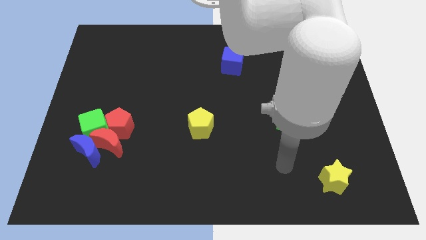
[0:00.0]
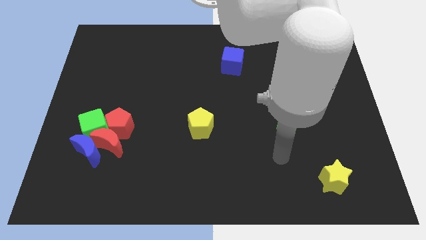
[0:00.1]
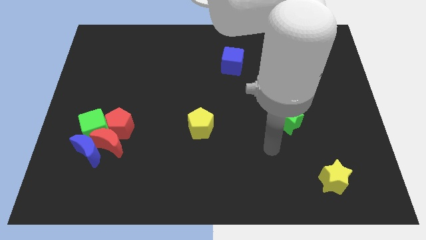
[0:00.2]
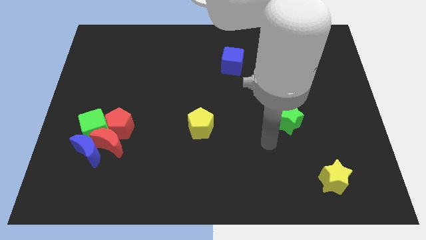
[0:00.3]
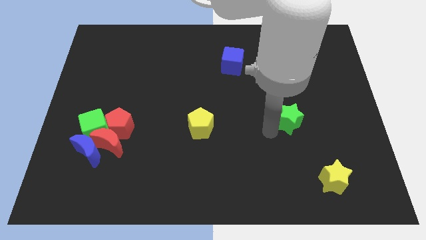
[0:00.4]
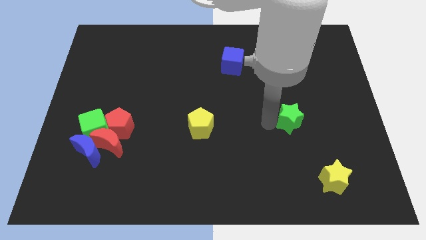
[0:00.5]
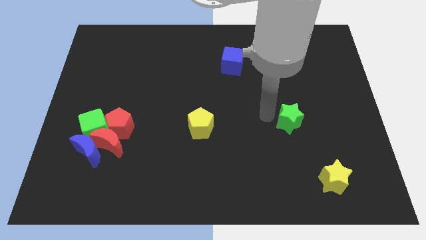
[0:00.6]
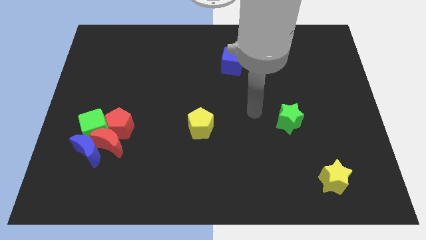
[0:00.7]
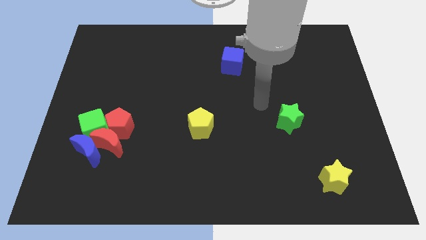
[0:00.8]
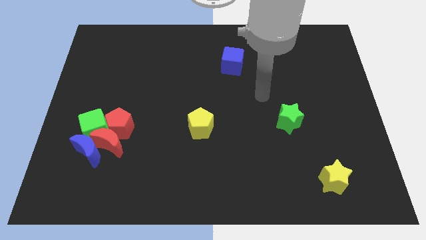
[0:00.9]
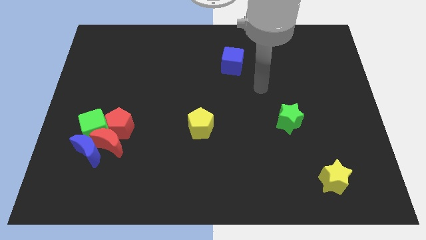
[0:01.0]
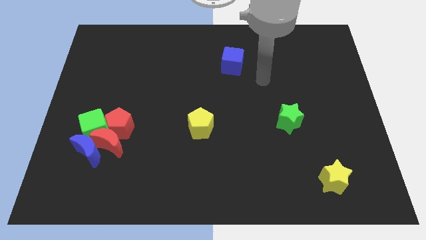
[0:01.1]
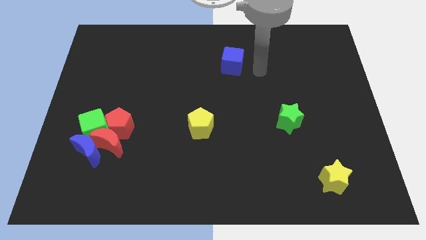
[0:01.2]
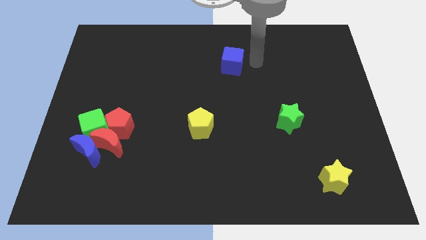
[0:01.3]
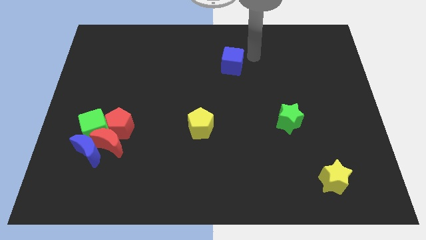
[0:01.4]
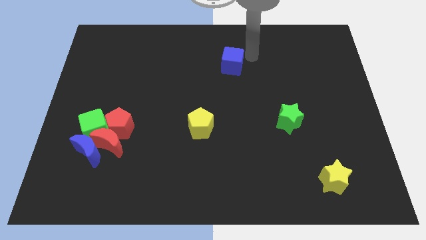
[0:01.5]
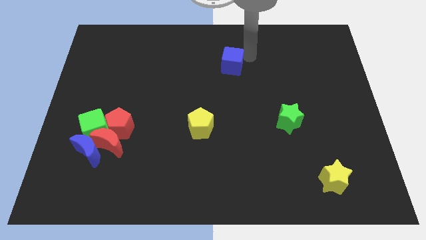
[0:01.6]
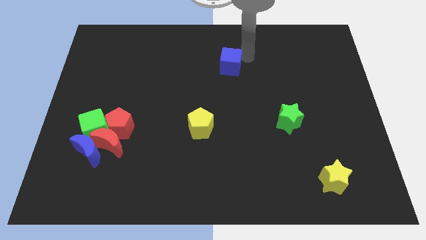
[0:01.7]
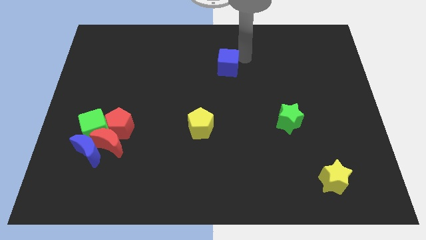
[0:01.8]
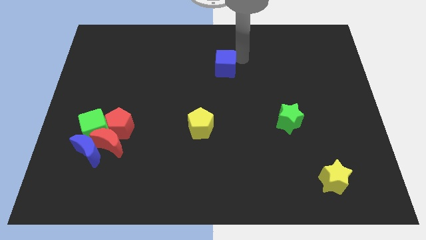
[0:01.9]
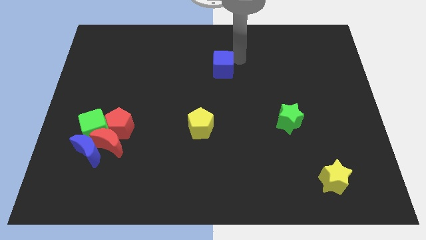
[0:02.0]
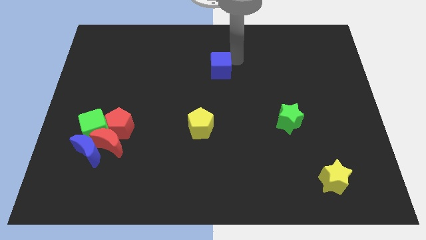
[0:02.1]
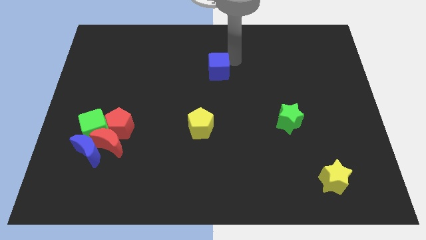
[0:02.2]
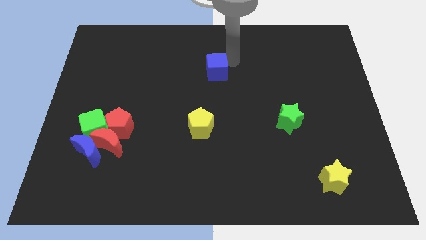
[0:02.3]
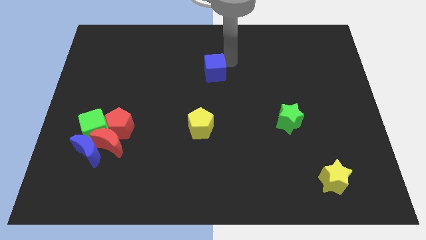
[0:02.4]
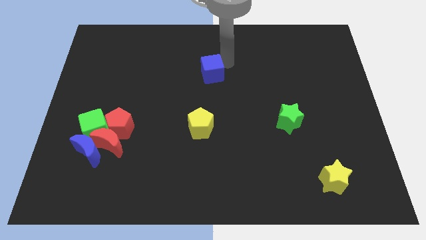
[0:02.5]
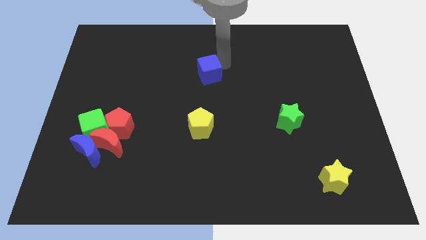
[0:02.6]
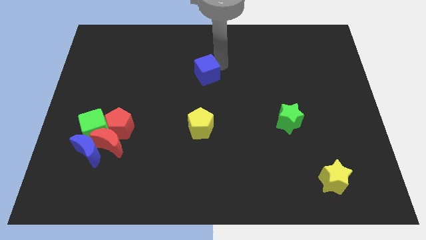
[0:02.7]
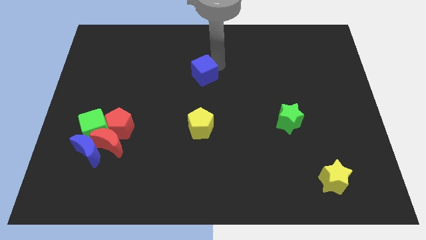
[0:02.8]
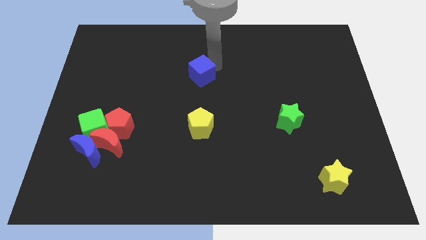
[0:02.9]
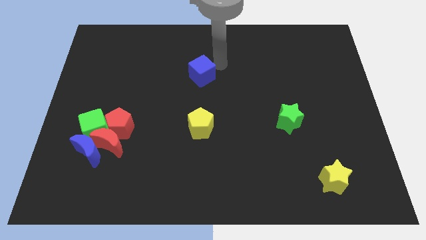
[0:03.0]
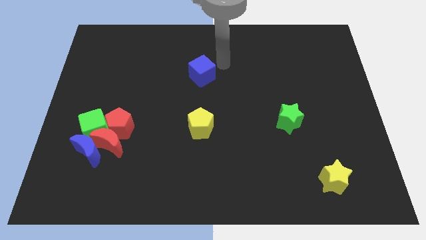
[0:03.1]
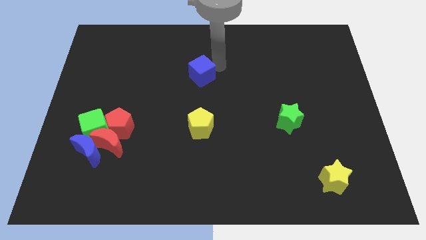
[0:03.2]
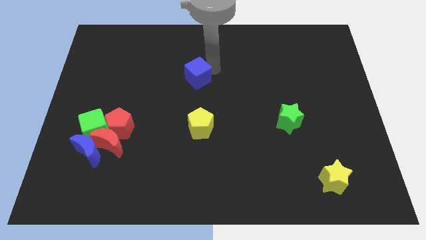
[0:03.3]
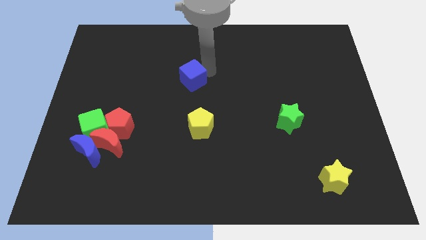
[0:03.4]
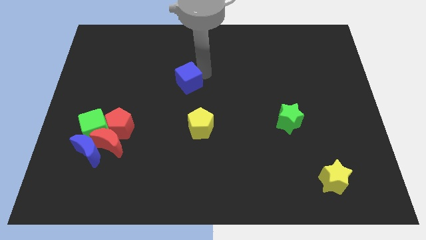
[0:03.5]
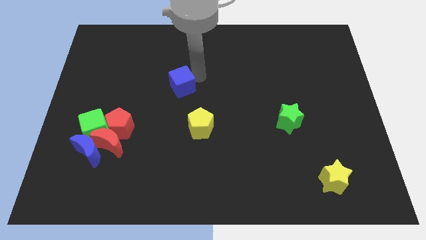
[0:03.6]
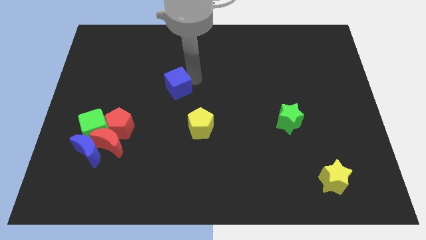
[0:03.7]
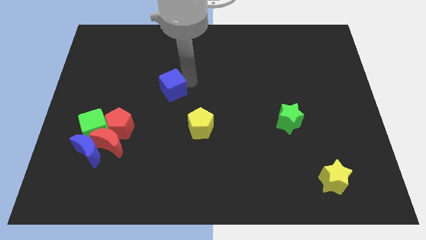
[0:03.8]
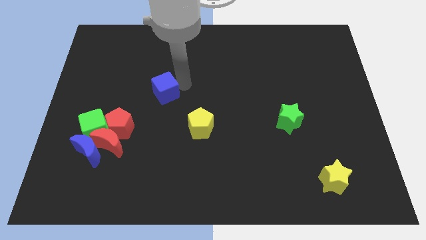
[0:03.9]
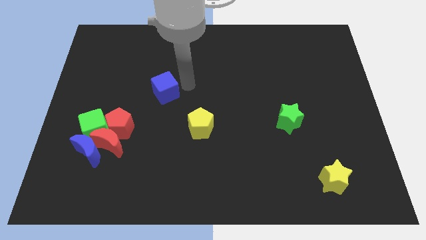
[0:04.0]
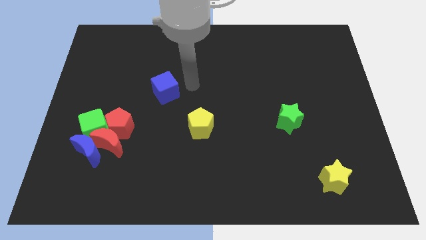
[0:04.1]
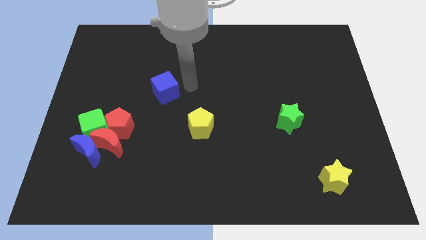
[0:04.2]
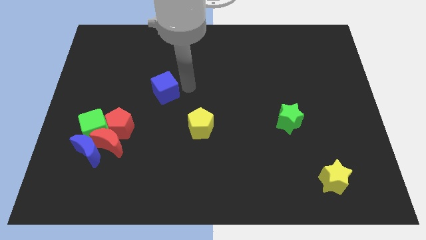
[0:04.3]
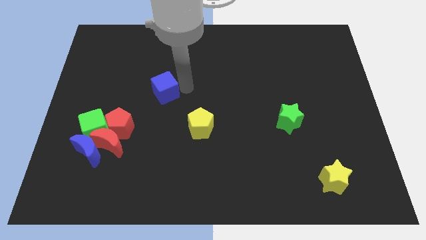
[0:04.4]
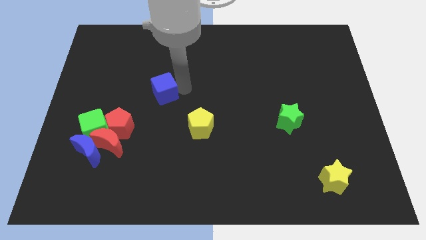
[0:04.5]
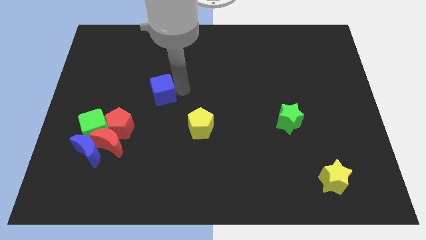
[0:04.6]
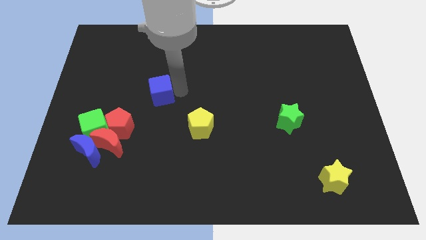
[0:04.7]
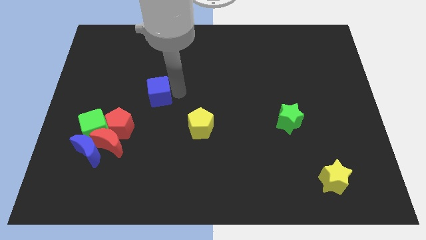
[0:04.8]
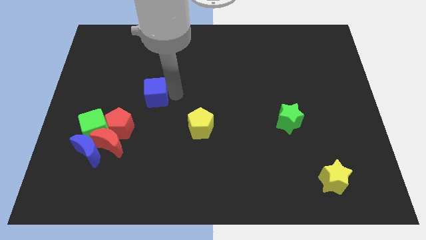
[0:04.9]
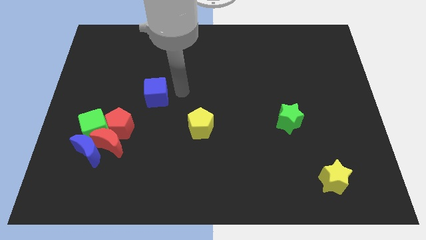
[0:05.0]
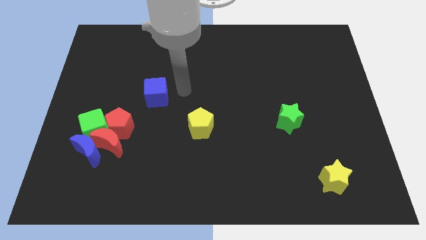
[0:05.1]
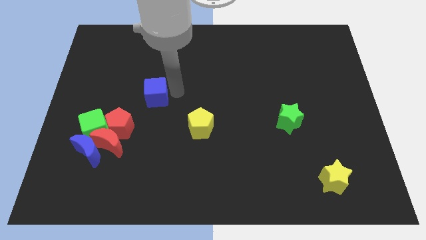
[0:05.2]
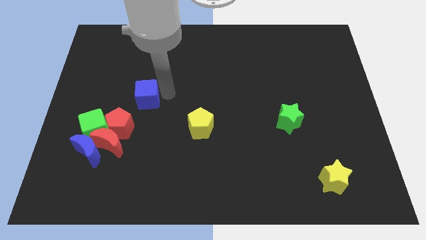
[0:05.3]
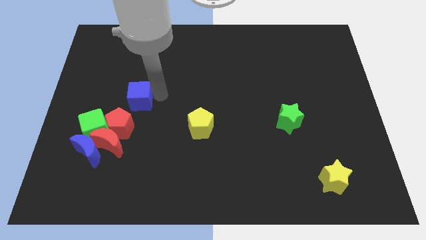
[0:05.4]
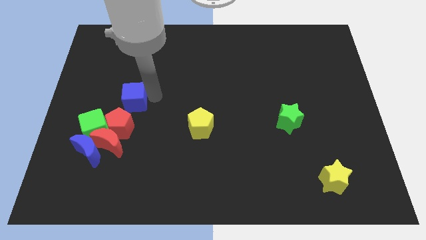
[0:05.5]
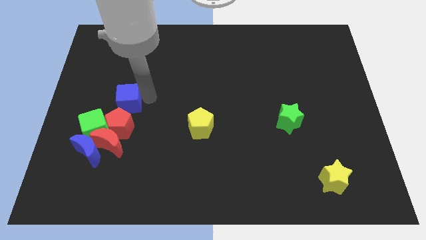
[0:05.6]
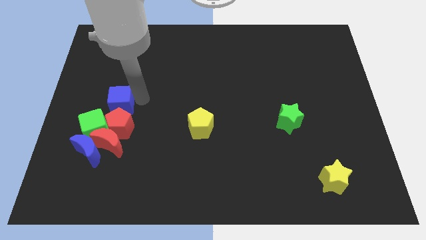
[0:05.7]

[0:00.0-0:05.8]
move the blue cube to the top left of the red pentagon

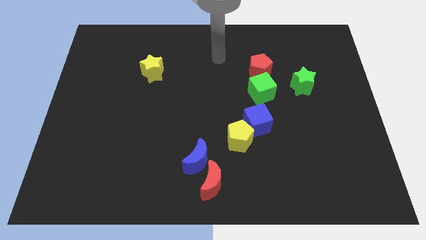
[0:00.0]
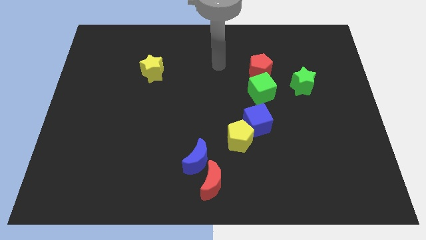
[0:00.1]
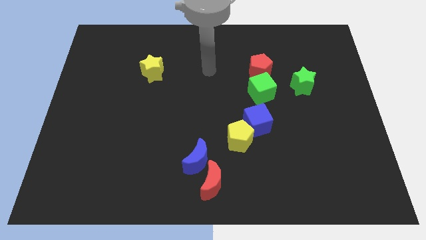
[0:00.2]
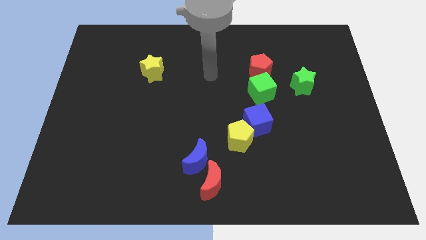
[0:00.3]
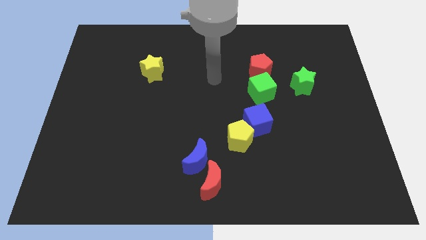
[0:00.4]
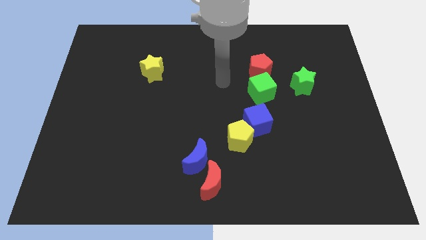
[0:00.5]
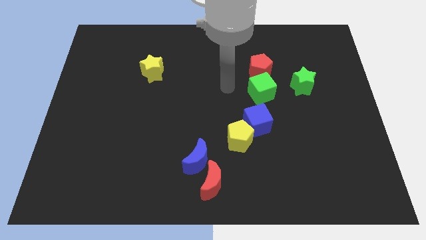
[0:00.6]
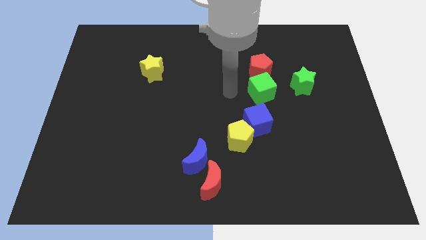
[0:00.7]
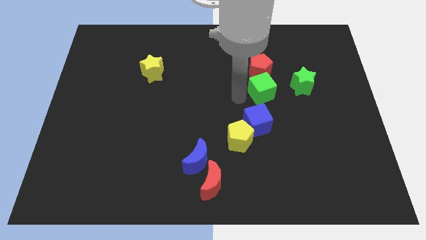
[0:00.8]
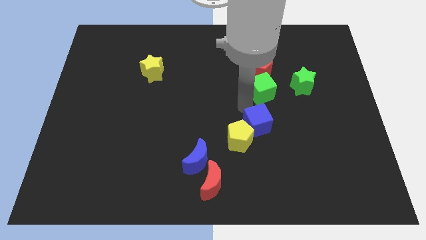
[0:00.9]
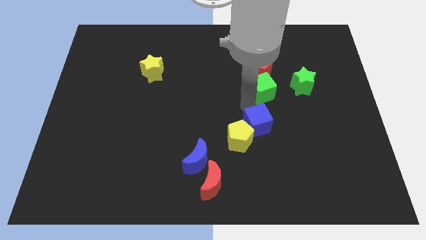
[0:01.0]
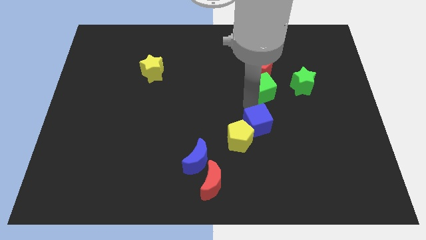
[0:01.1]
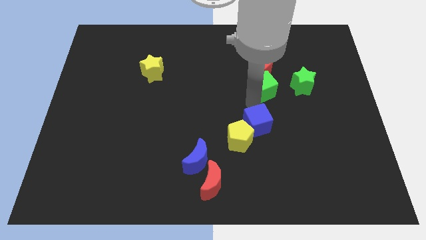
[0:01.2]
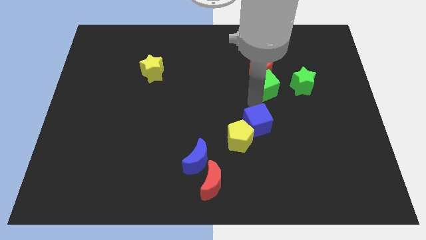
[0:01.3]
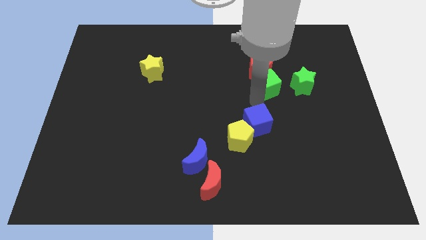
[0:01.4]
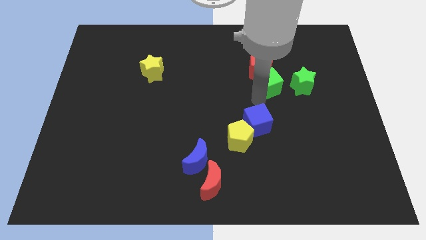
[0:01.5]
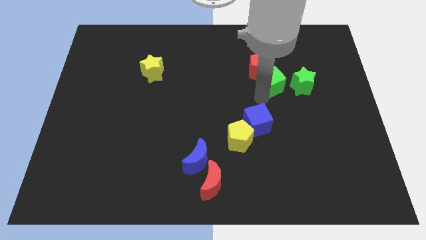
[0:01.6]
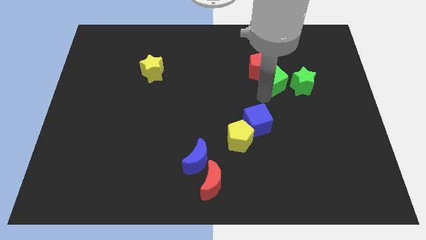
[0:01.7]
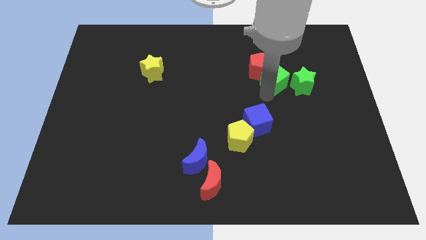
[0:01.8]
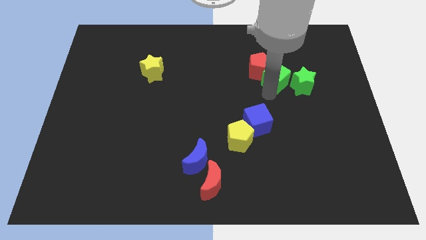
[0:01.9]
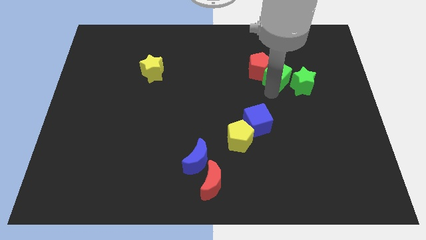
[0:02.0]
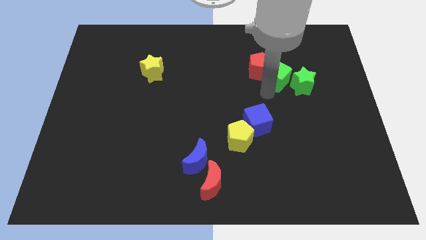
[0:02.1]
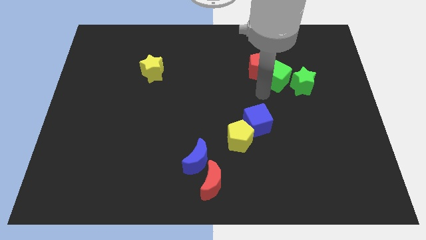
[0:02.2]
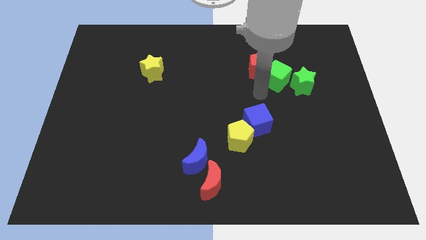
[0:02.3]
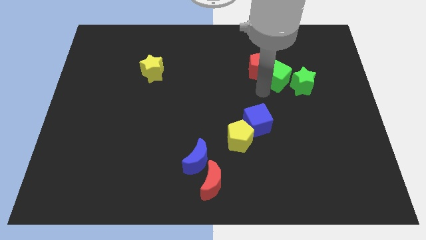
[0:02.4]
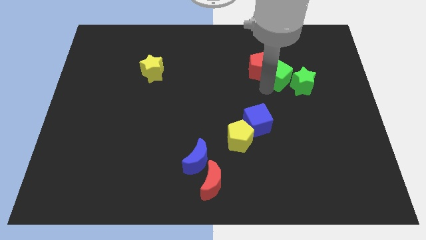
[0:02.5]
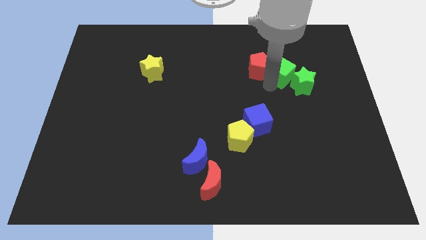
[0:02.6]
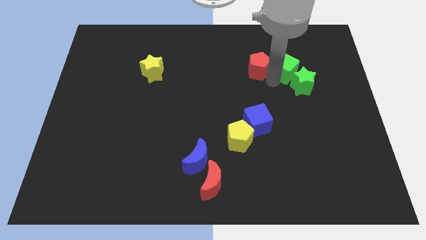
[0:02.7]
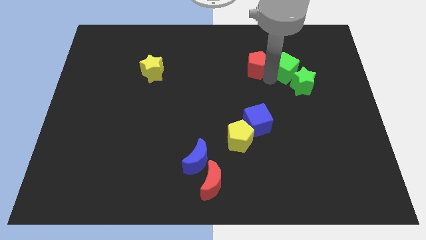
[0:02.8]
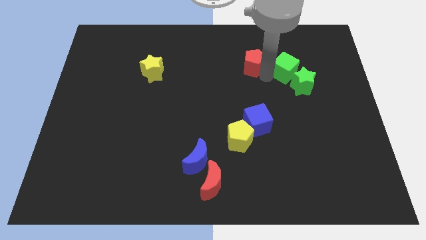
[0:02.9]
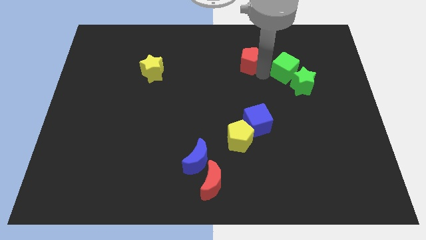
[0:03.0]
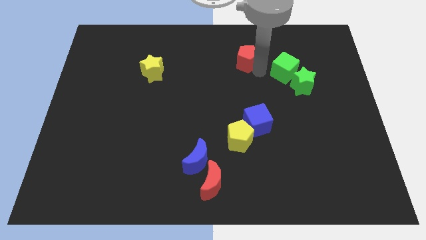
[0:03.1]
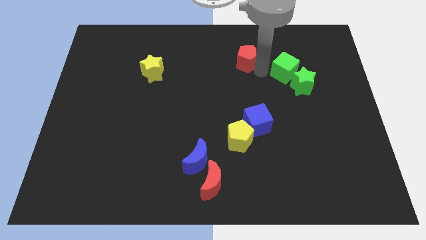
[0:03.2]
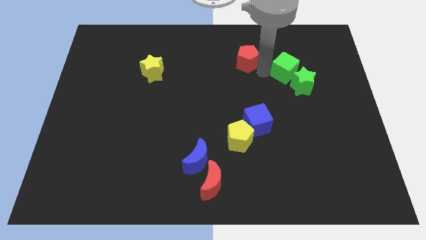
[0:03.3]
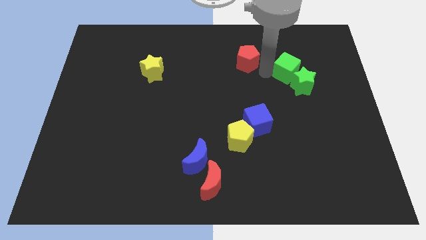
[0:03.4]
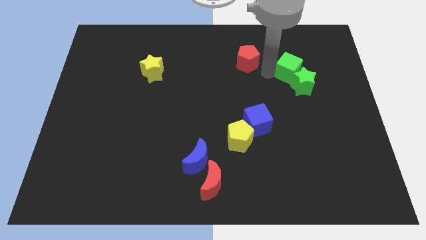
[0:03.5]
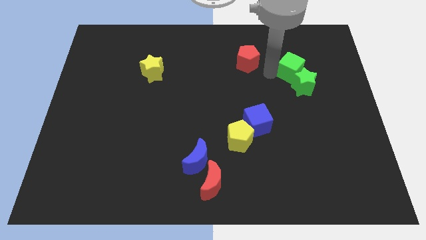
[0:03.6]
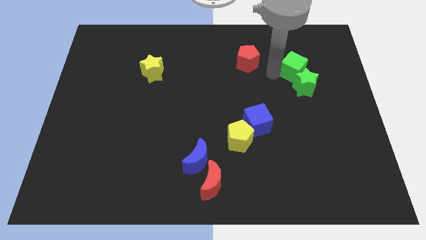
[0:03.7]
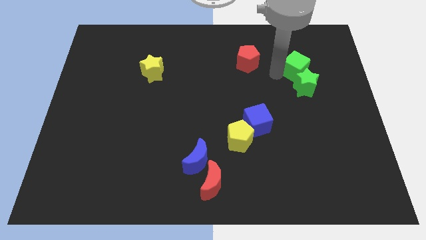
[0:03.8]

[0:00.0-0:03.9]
put the green cube to the top right side of the green star
